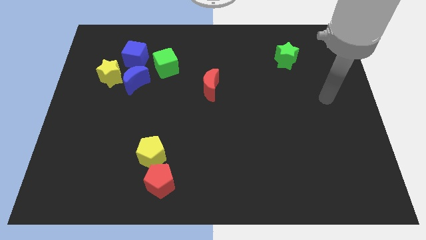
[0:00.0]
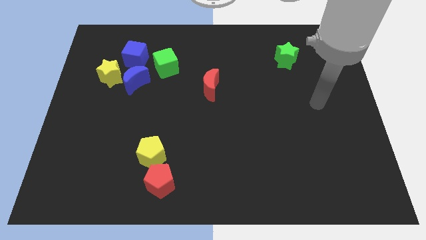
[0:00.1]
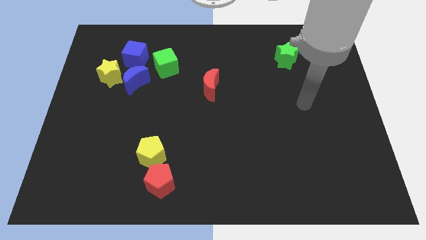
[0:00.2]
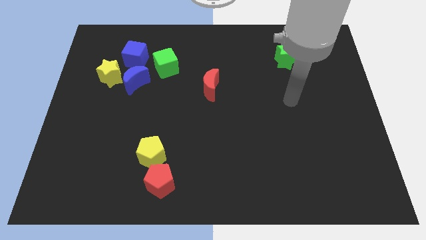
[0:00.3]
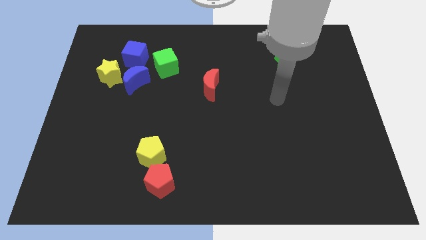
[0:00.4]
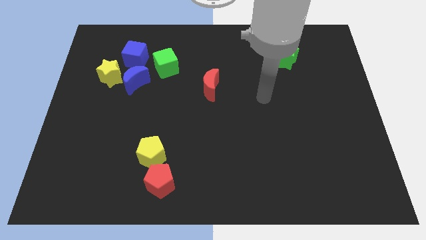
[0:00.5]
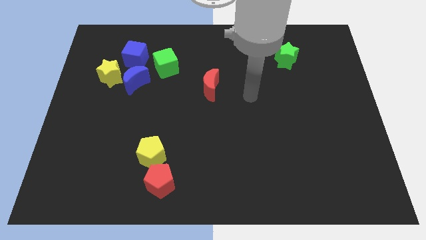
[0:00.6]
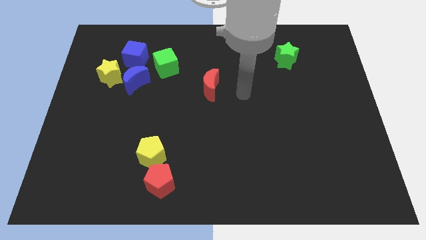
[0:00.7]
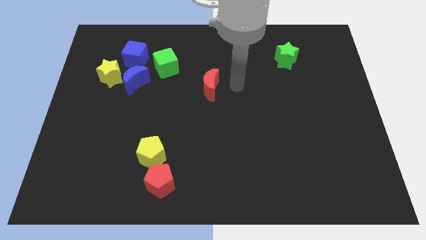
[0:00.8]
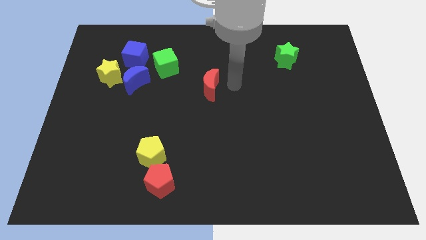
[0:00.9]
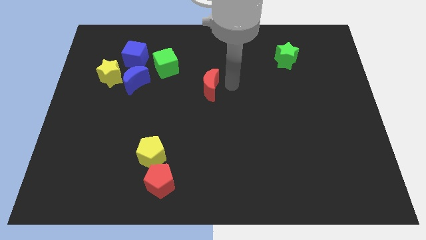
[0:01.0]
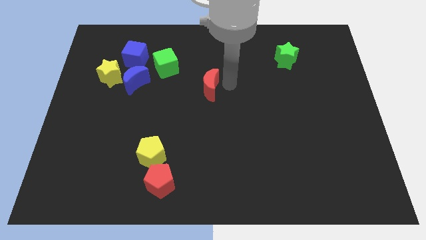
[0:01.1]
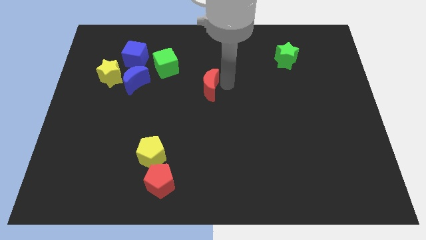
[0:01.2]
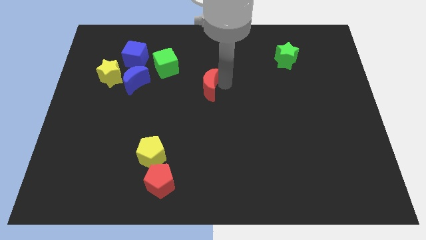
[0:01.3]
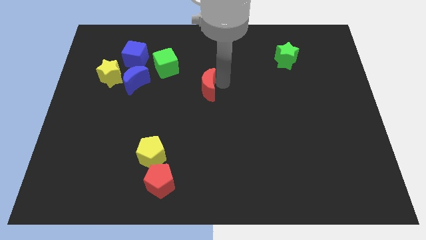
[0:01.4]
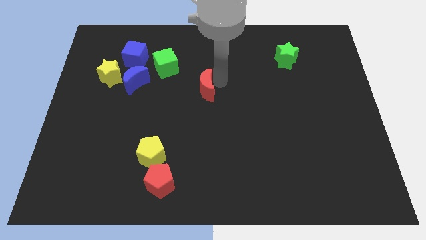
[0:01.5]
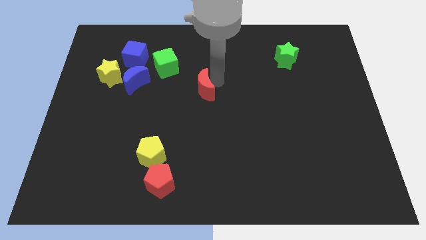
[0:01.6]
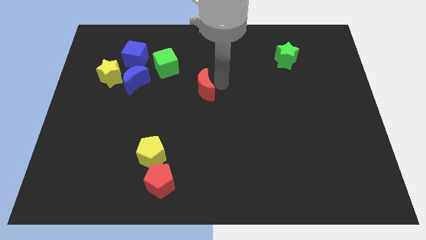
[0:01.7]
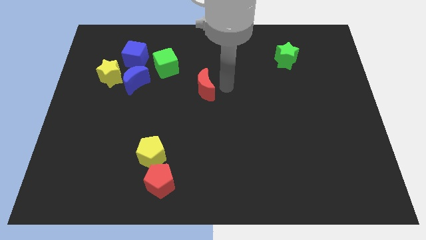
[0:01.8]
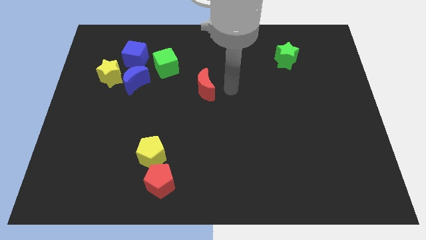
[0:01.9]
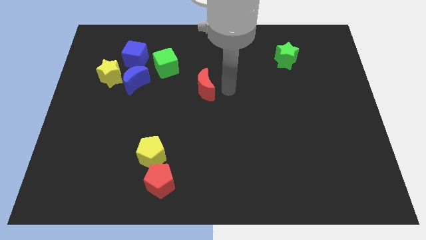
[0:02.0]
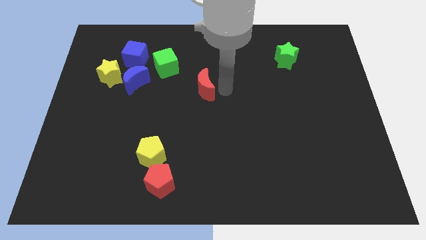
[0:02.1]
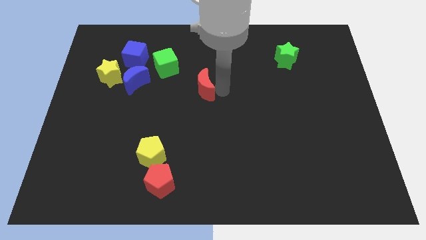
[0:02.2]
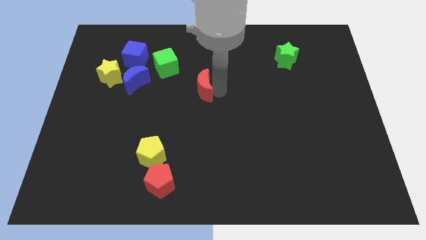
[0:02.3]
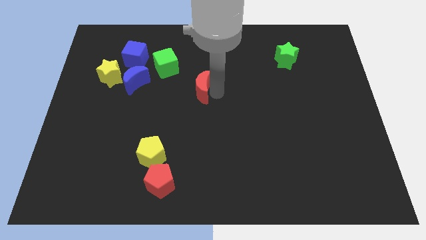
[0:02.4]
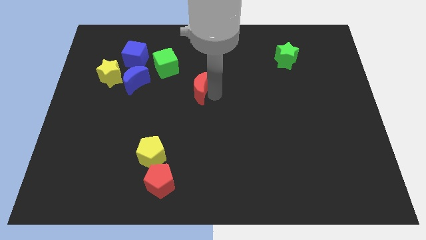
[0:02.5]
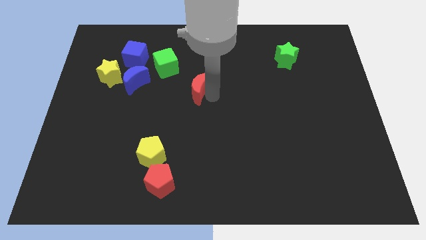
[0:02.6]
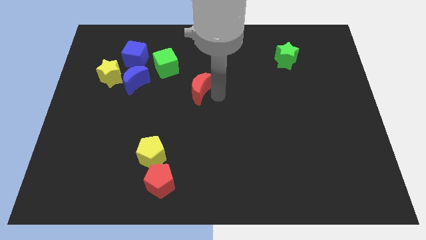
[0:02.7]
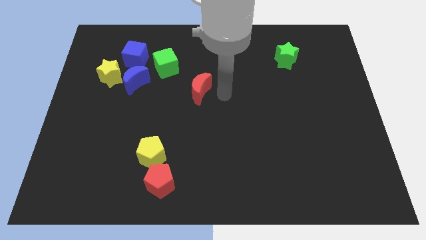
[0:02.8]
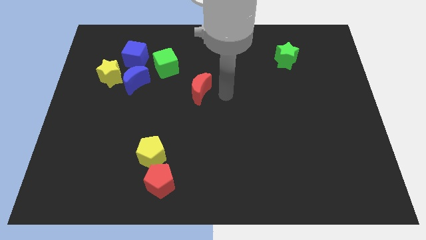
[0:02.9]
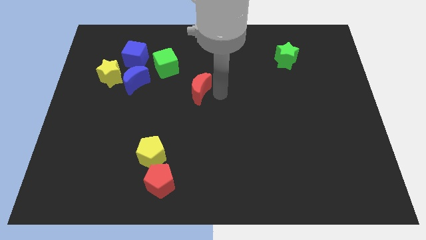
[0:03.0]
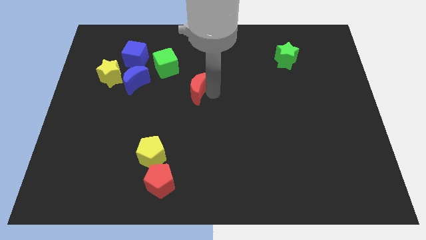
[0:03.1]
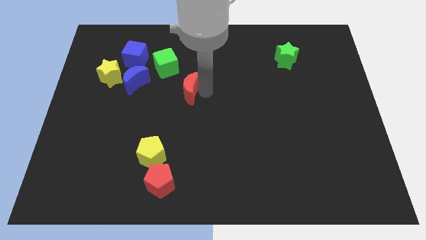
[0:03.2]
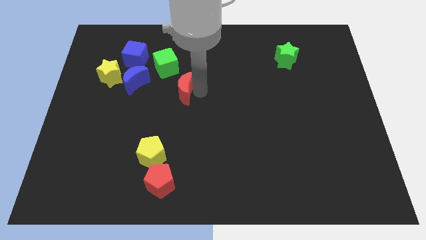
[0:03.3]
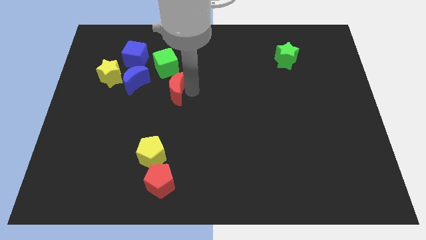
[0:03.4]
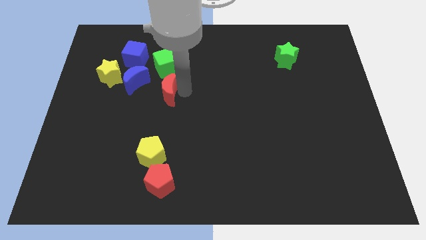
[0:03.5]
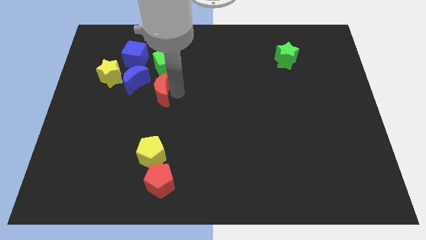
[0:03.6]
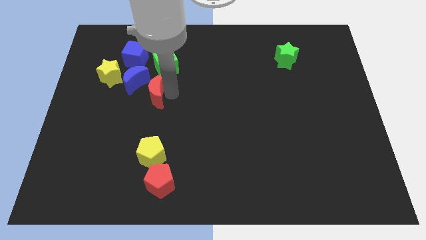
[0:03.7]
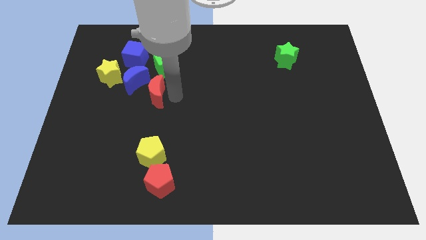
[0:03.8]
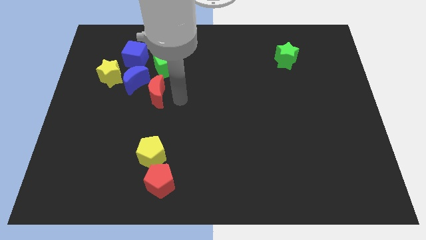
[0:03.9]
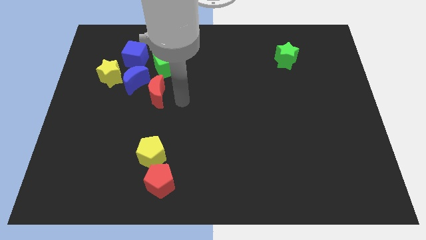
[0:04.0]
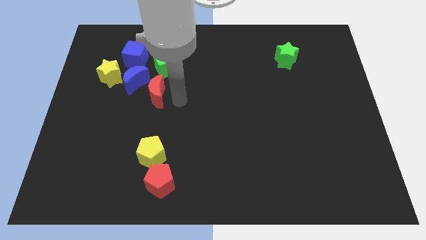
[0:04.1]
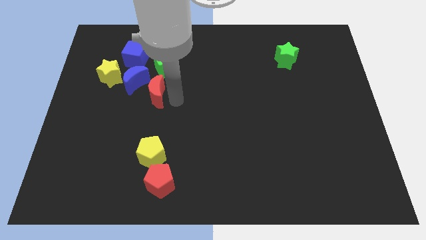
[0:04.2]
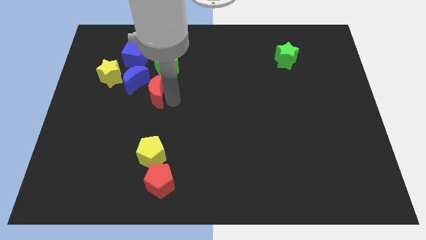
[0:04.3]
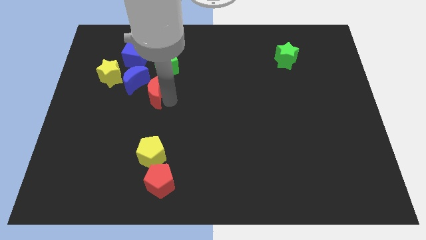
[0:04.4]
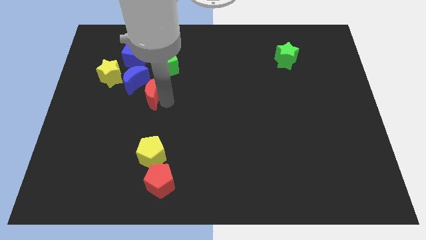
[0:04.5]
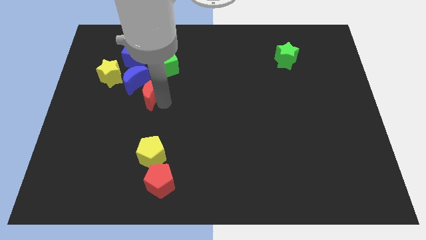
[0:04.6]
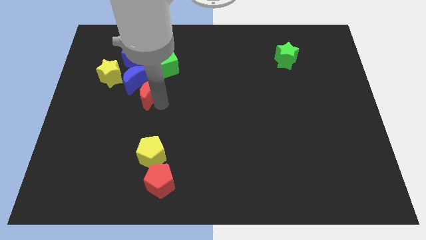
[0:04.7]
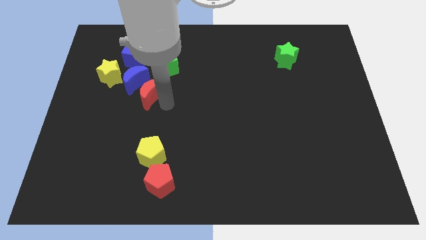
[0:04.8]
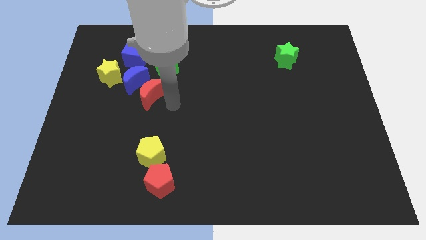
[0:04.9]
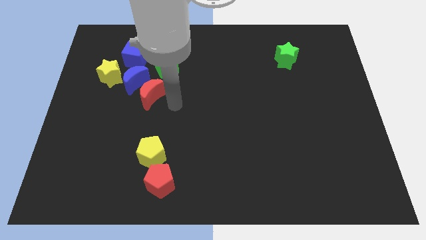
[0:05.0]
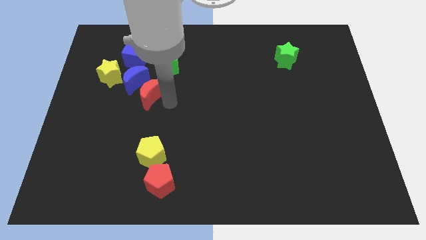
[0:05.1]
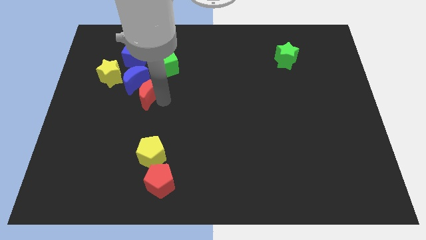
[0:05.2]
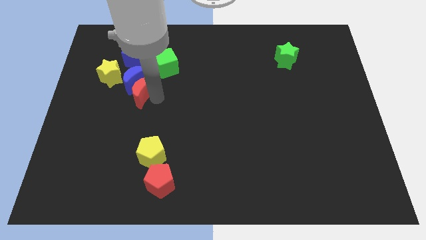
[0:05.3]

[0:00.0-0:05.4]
push the red moon to the bottom side of the blue cube

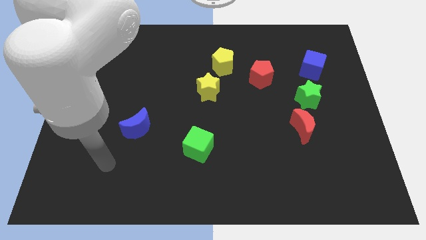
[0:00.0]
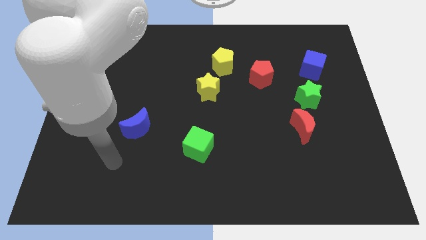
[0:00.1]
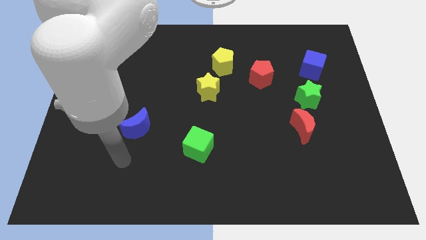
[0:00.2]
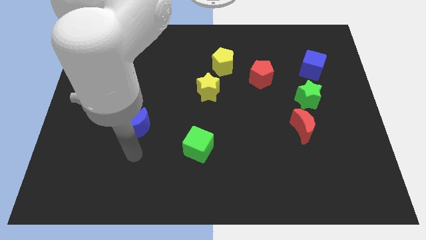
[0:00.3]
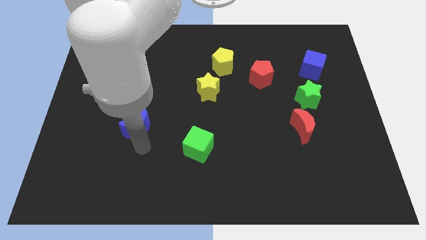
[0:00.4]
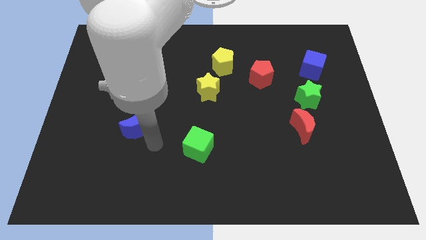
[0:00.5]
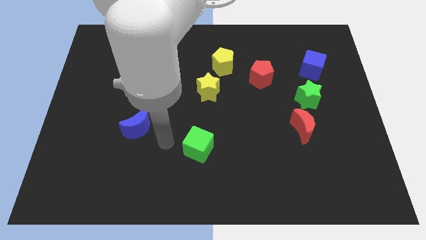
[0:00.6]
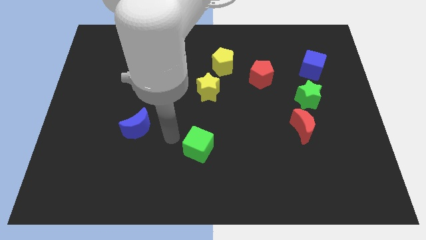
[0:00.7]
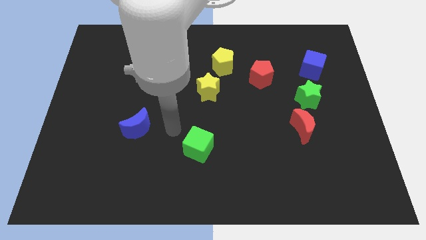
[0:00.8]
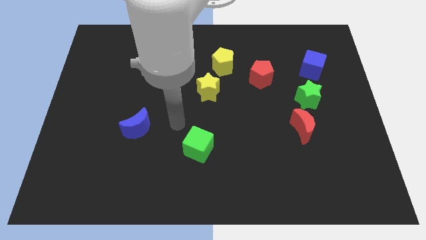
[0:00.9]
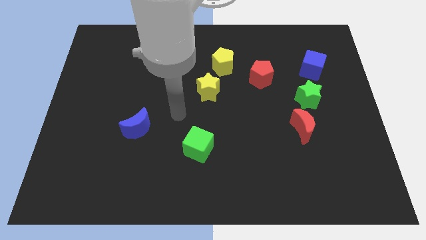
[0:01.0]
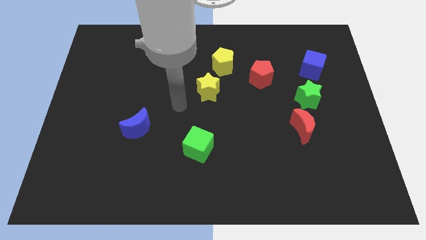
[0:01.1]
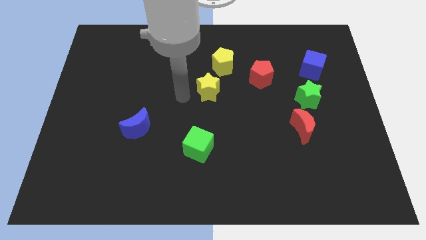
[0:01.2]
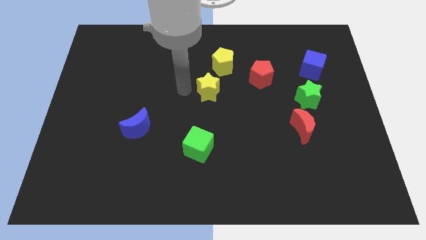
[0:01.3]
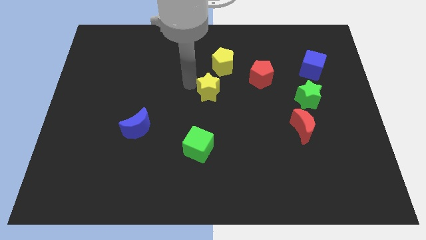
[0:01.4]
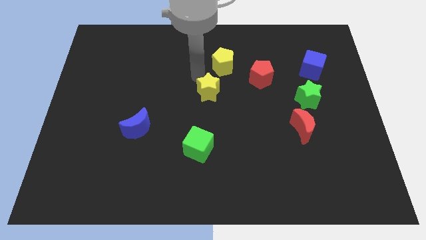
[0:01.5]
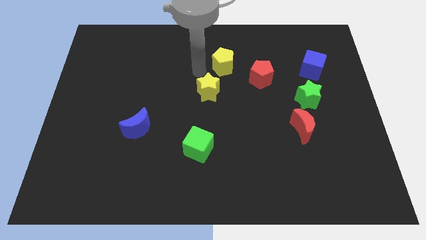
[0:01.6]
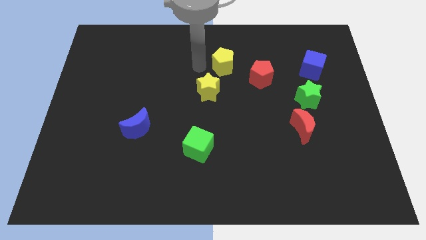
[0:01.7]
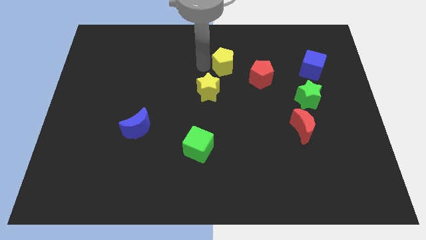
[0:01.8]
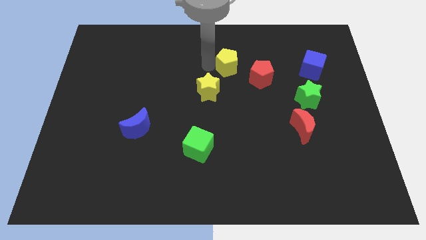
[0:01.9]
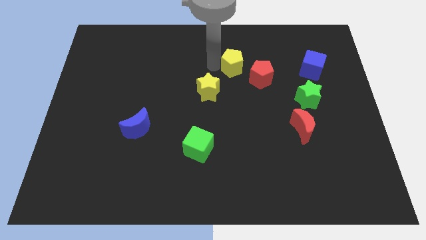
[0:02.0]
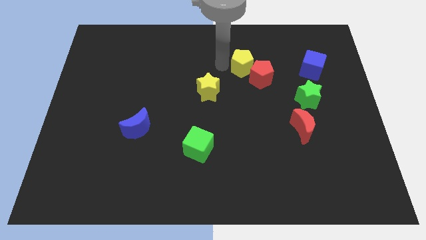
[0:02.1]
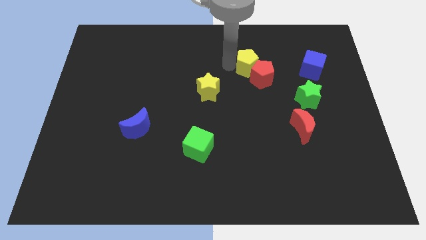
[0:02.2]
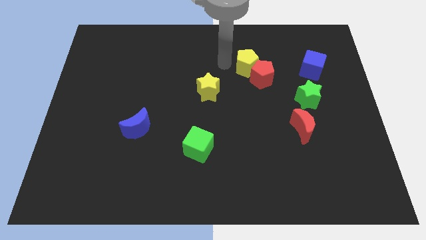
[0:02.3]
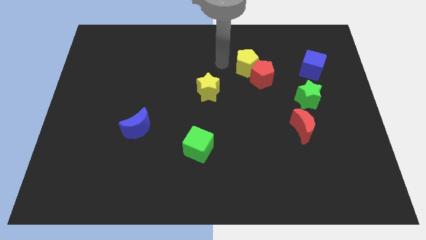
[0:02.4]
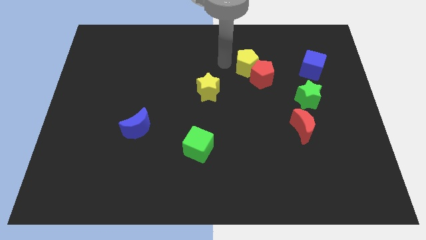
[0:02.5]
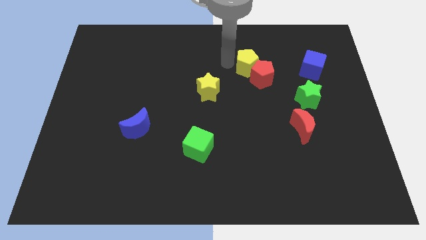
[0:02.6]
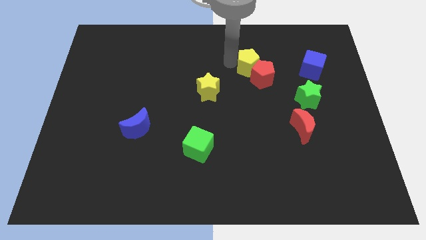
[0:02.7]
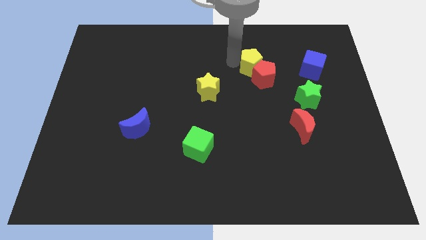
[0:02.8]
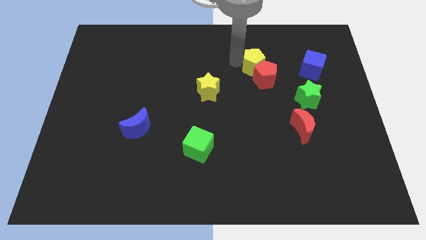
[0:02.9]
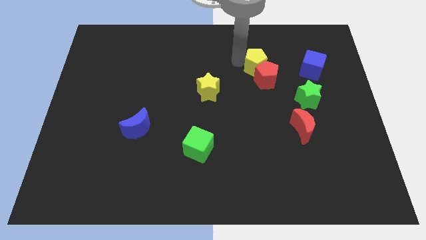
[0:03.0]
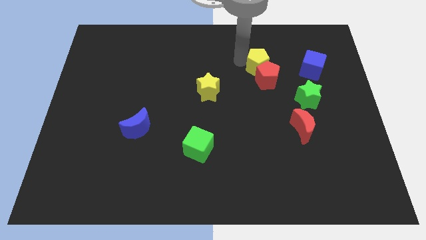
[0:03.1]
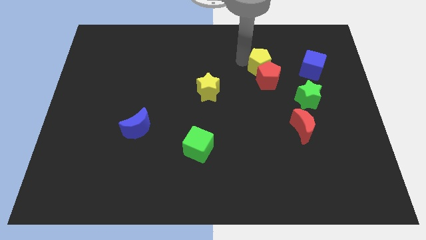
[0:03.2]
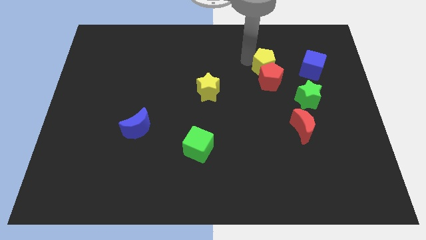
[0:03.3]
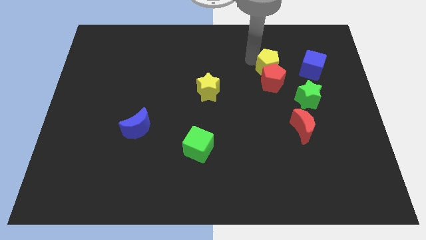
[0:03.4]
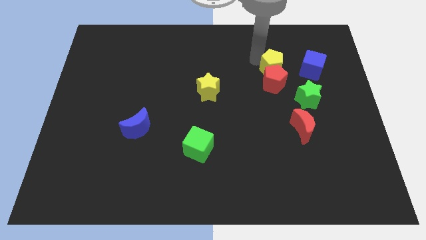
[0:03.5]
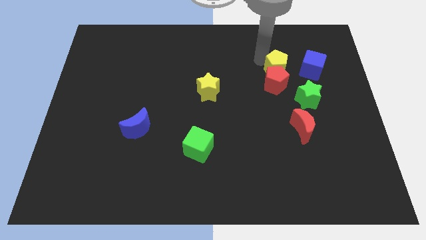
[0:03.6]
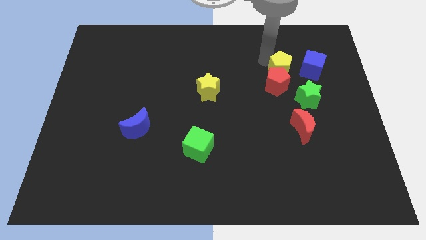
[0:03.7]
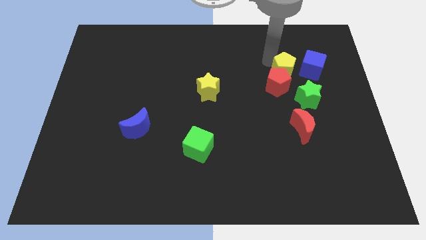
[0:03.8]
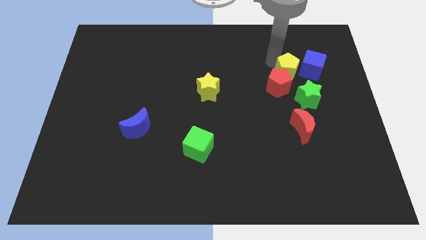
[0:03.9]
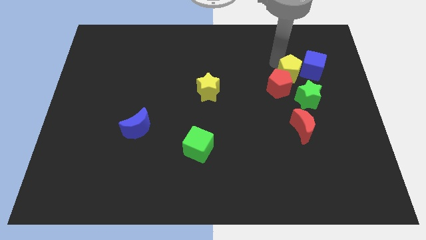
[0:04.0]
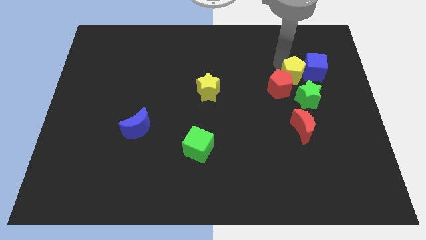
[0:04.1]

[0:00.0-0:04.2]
slide the yellow pentagon just right of the red pentagon
